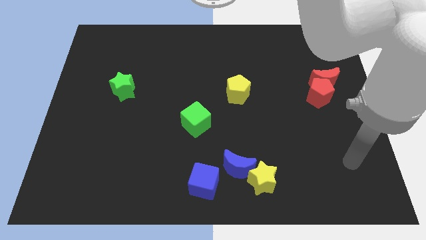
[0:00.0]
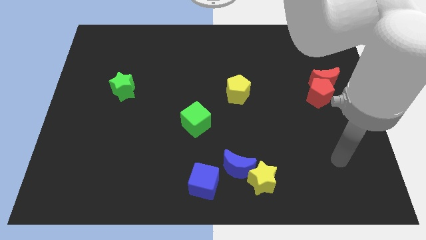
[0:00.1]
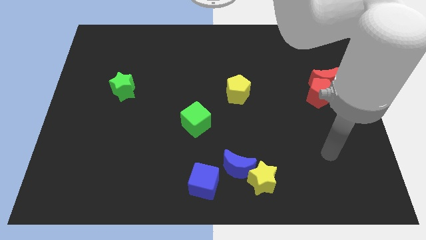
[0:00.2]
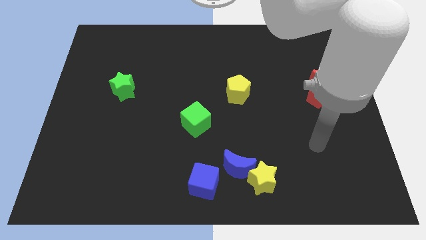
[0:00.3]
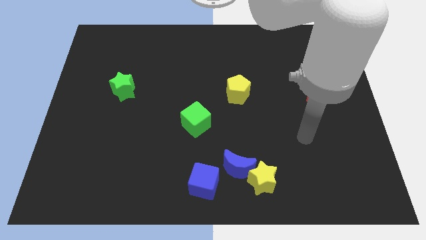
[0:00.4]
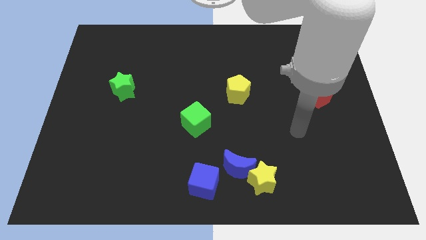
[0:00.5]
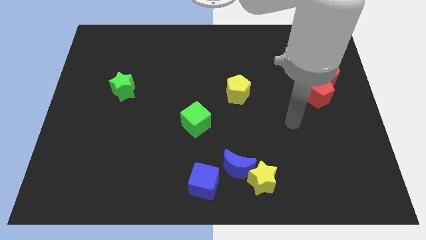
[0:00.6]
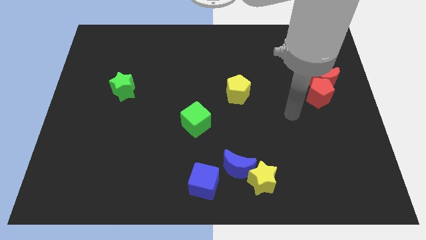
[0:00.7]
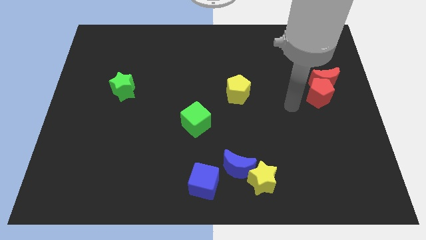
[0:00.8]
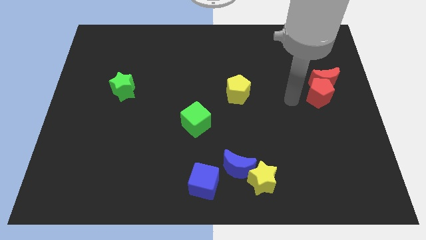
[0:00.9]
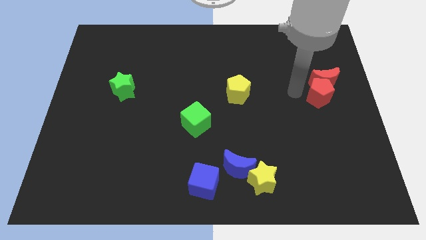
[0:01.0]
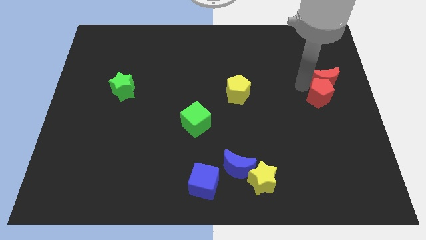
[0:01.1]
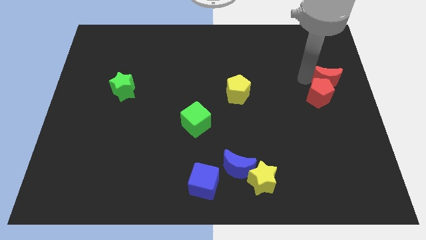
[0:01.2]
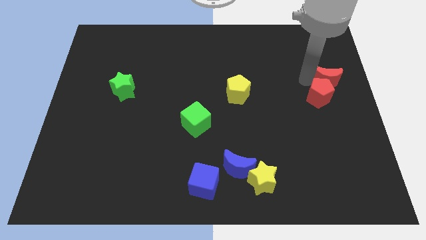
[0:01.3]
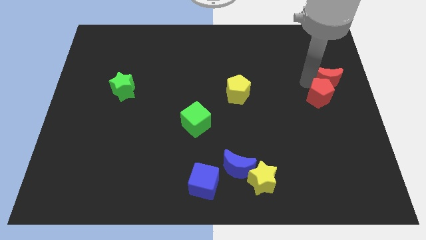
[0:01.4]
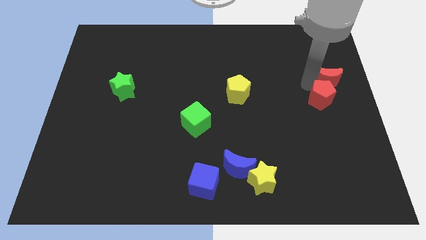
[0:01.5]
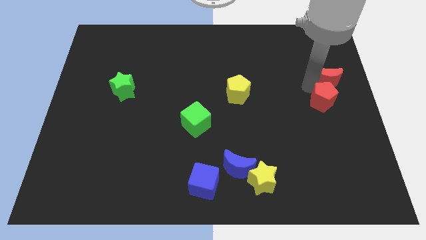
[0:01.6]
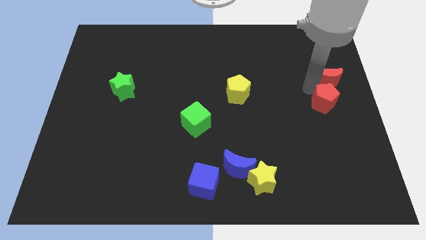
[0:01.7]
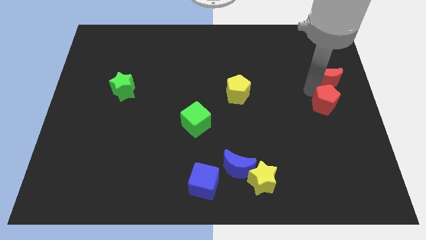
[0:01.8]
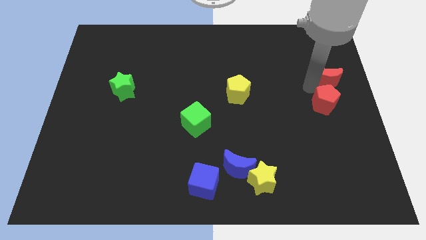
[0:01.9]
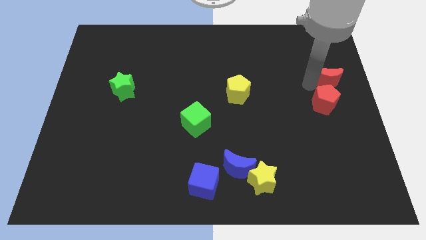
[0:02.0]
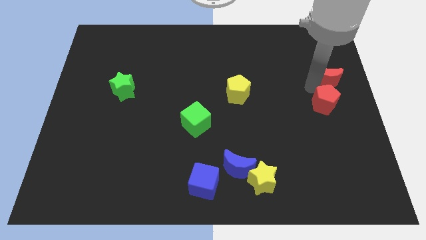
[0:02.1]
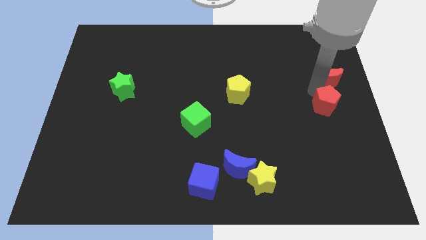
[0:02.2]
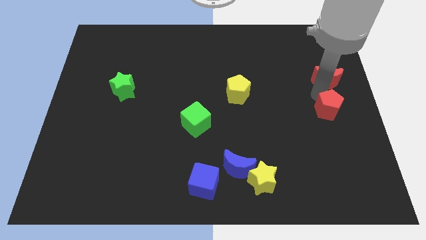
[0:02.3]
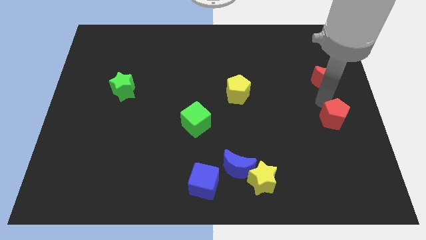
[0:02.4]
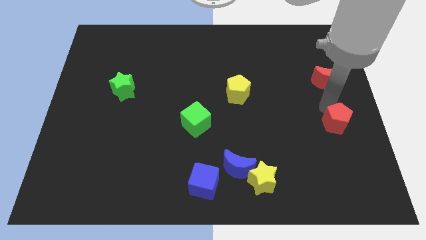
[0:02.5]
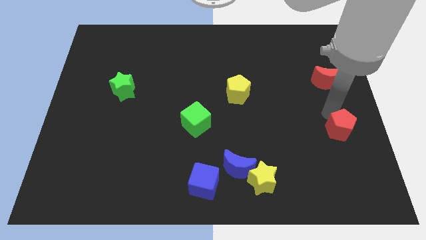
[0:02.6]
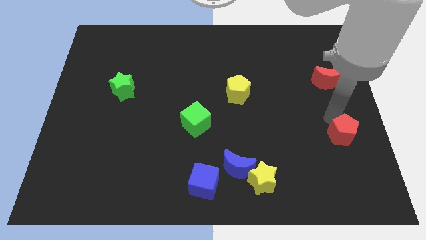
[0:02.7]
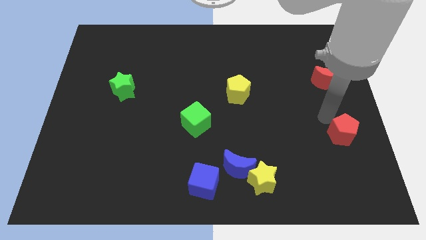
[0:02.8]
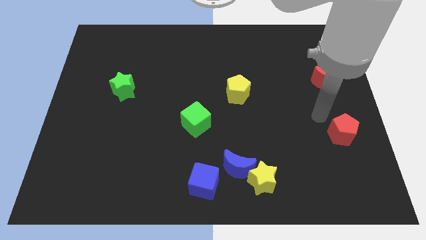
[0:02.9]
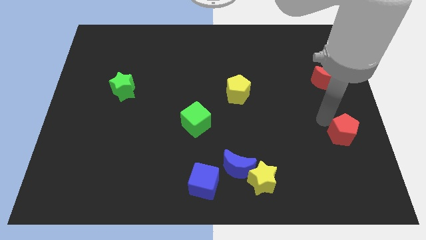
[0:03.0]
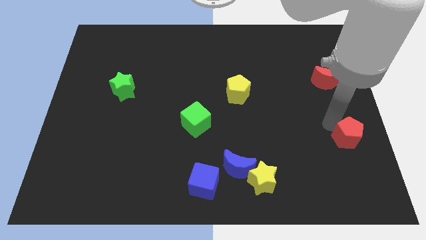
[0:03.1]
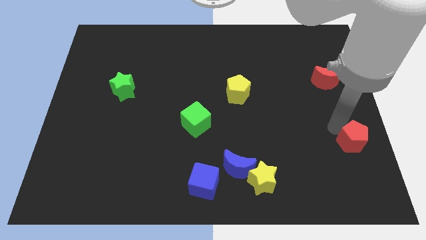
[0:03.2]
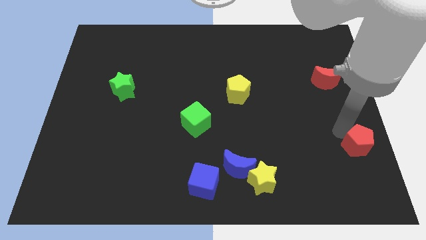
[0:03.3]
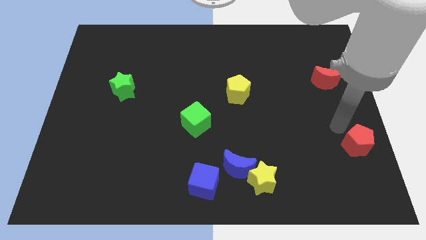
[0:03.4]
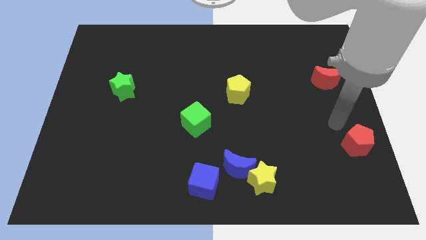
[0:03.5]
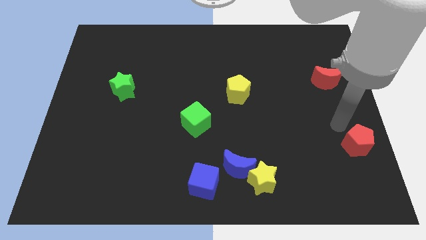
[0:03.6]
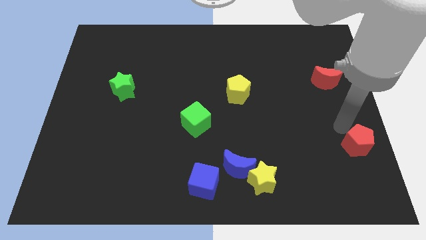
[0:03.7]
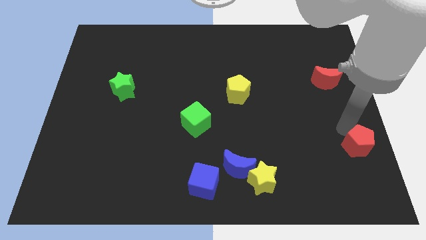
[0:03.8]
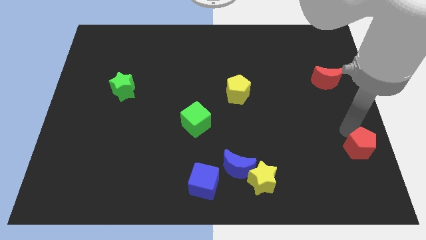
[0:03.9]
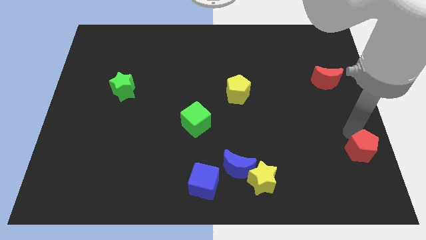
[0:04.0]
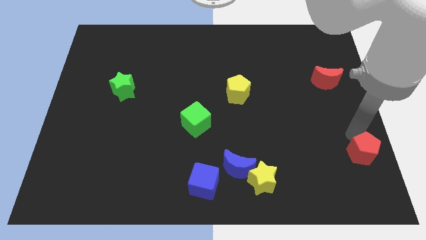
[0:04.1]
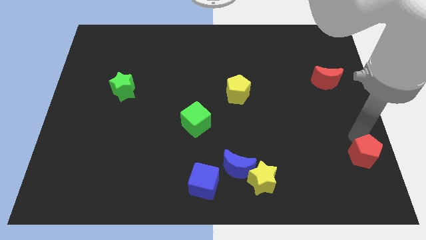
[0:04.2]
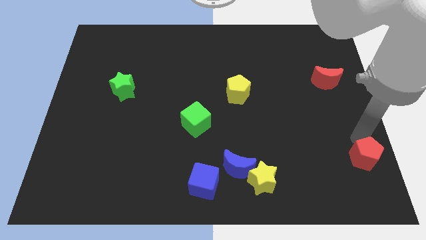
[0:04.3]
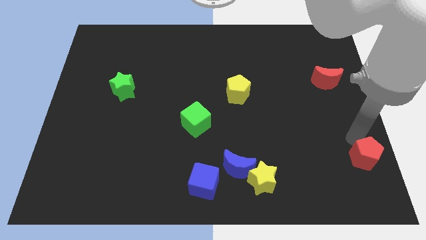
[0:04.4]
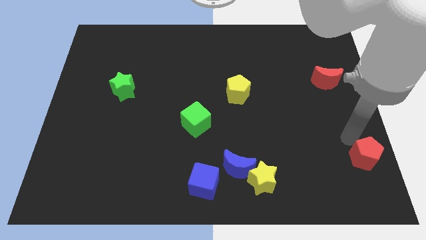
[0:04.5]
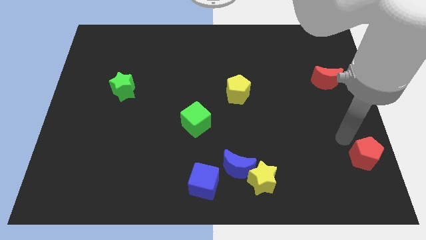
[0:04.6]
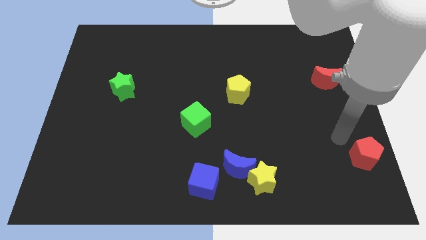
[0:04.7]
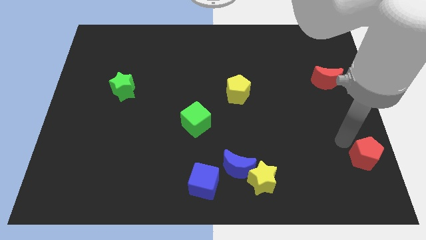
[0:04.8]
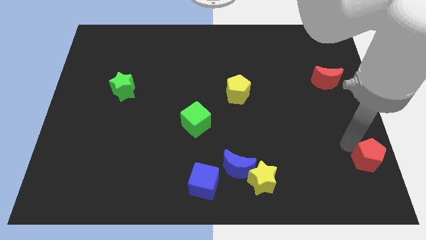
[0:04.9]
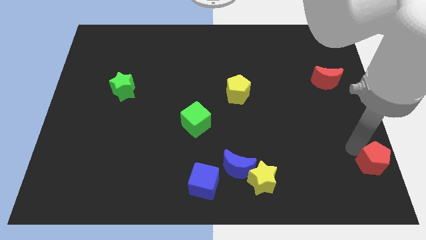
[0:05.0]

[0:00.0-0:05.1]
slide the red pentagon to the bottom right corner

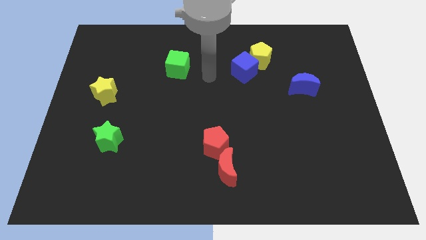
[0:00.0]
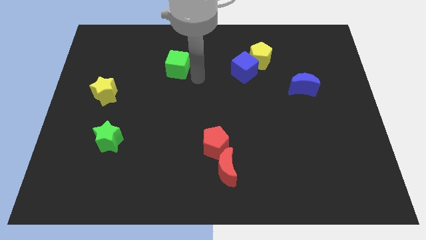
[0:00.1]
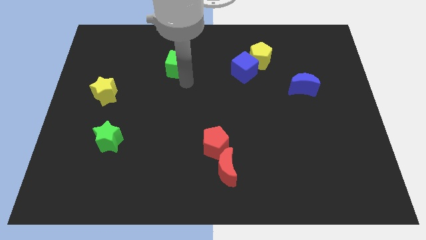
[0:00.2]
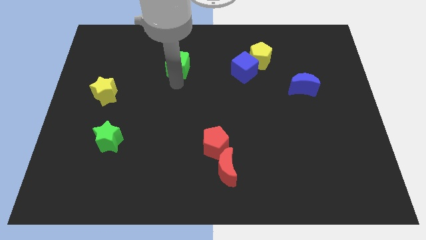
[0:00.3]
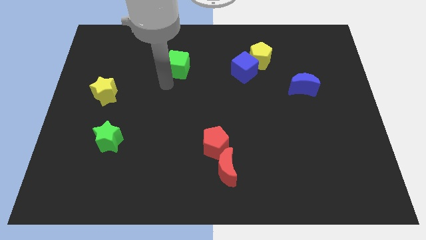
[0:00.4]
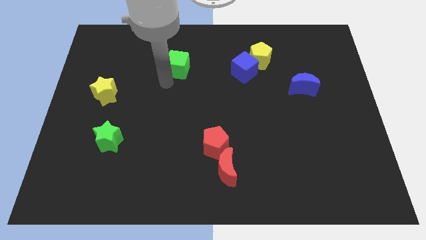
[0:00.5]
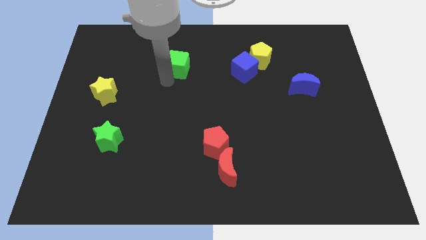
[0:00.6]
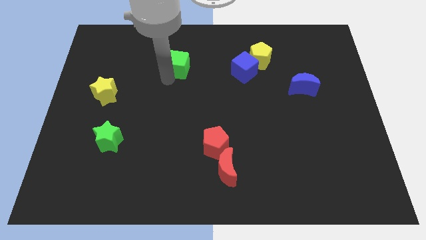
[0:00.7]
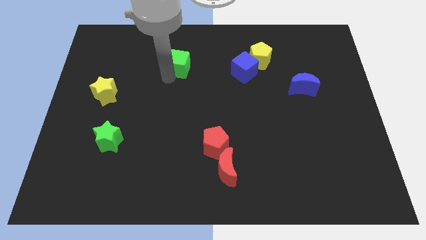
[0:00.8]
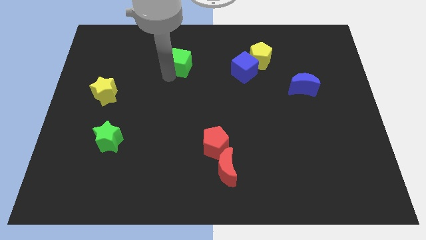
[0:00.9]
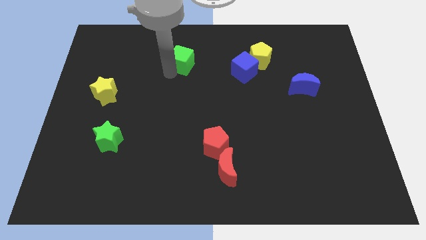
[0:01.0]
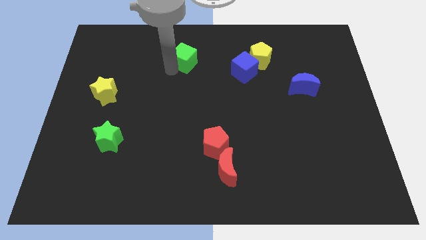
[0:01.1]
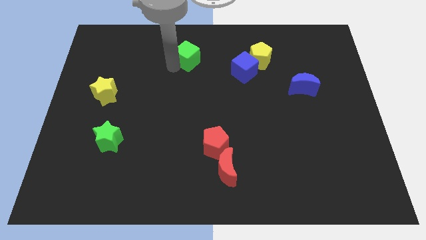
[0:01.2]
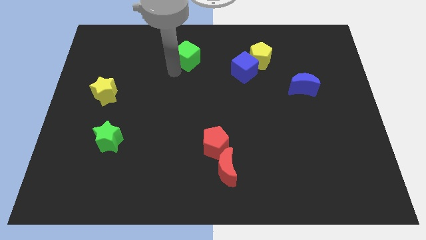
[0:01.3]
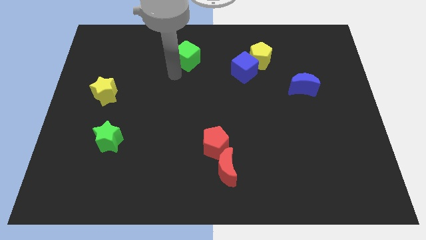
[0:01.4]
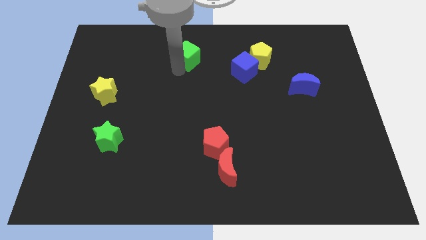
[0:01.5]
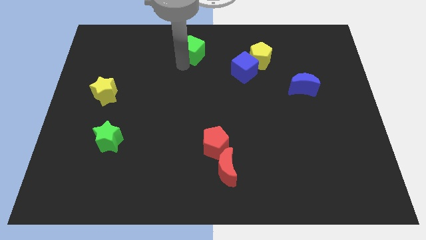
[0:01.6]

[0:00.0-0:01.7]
move the green cube to the top side
